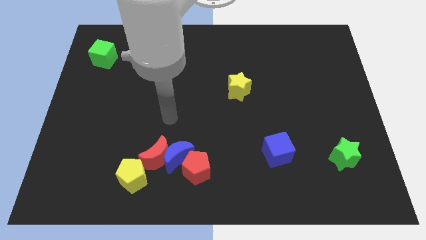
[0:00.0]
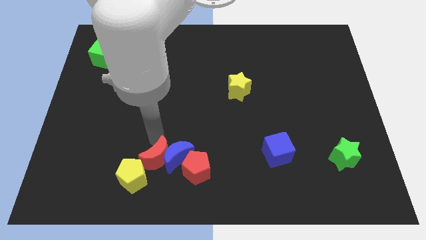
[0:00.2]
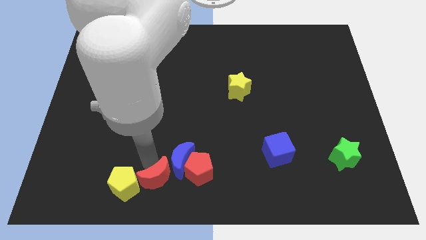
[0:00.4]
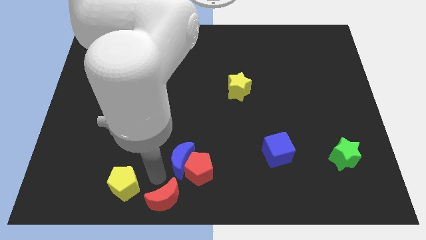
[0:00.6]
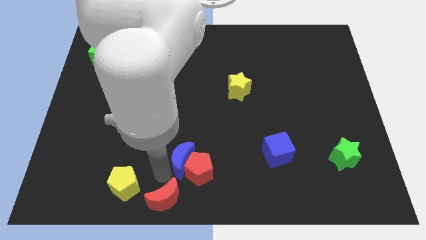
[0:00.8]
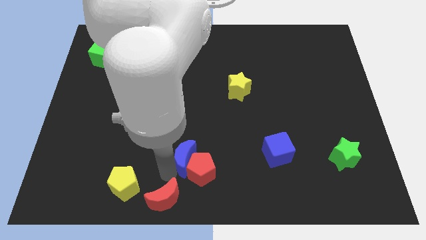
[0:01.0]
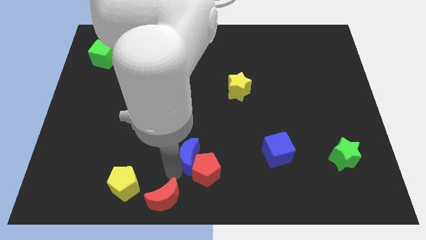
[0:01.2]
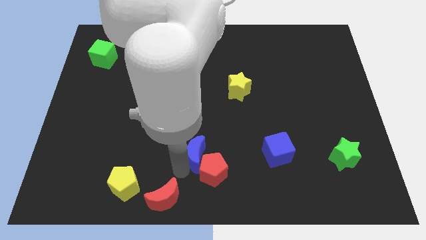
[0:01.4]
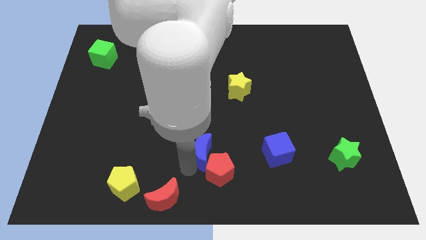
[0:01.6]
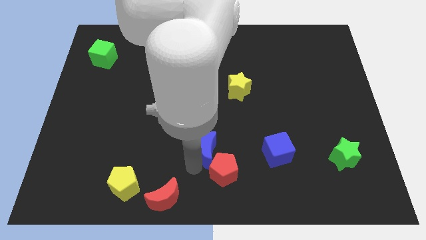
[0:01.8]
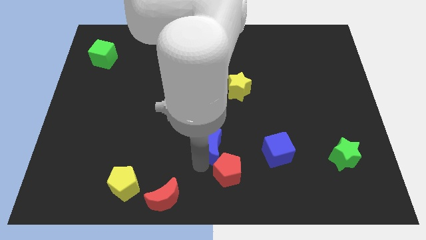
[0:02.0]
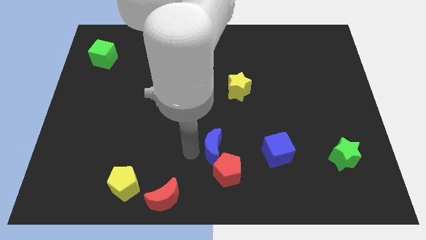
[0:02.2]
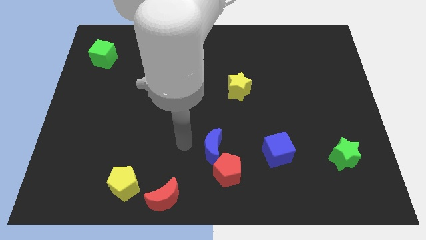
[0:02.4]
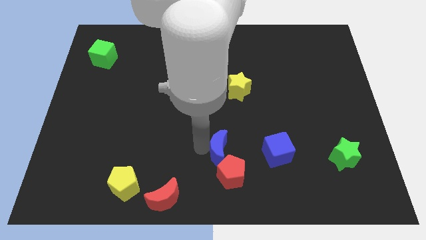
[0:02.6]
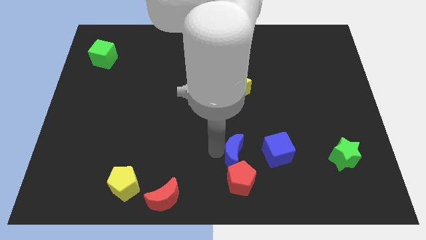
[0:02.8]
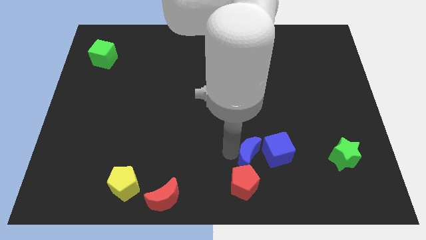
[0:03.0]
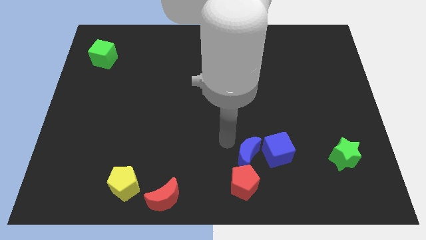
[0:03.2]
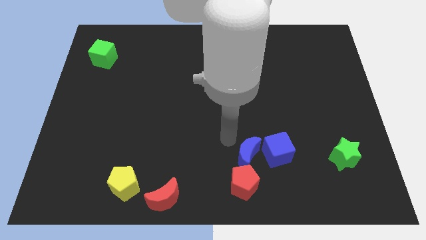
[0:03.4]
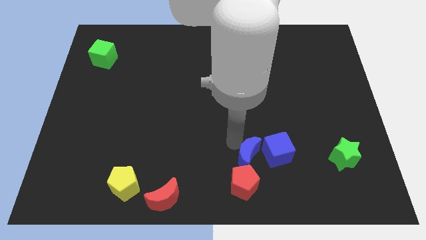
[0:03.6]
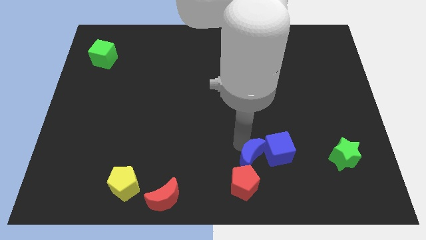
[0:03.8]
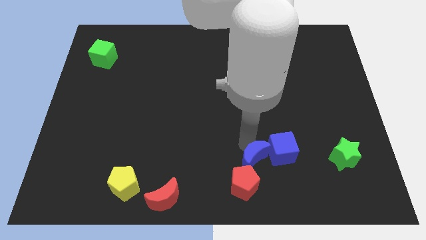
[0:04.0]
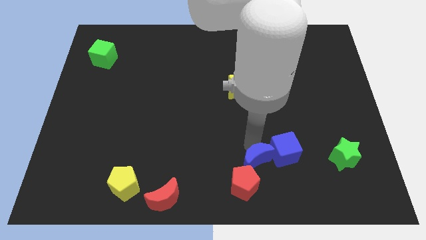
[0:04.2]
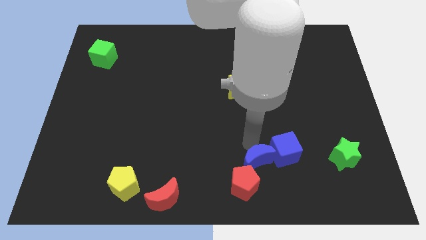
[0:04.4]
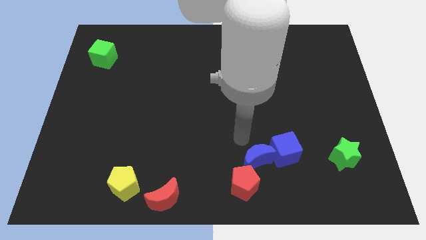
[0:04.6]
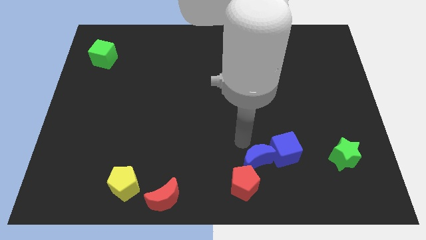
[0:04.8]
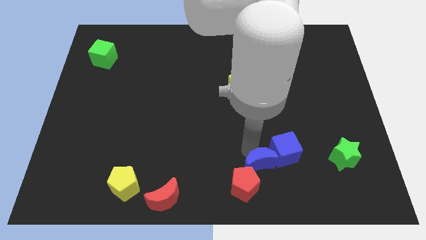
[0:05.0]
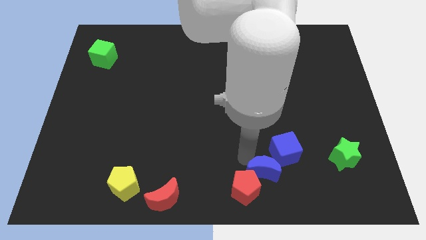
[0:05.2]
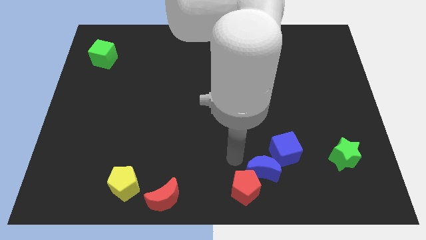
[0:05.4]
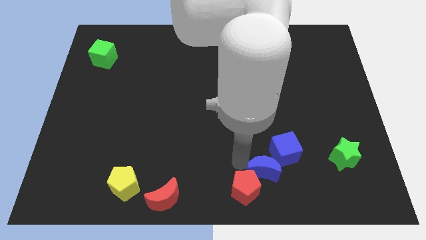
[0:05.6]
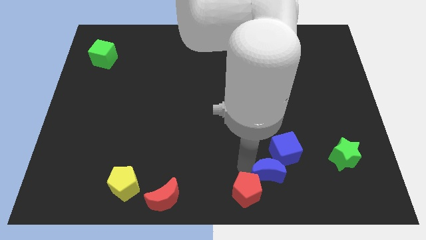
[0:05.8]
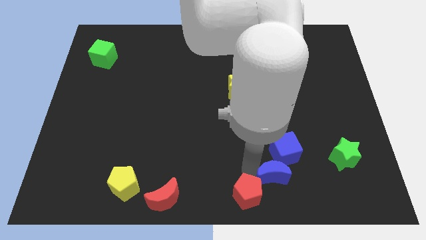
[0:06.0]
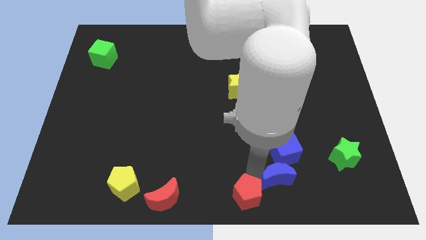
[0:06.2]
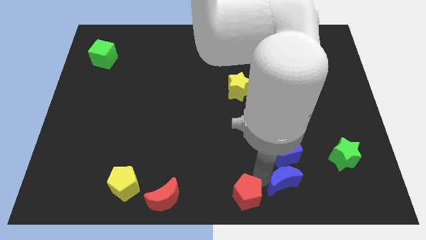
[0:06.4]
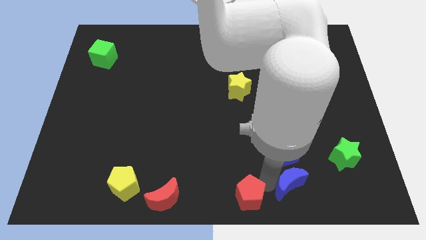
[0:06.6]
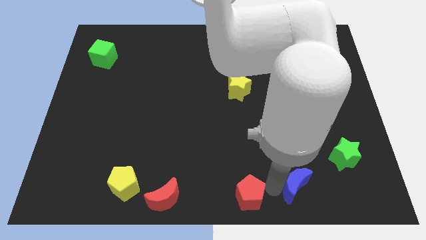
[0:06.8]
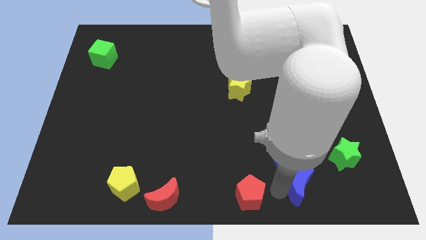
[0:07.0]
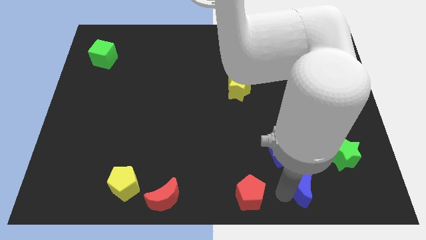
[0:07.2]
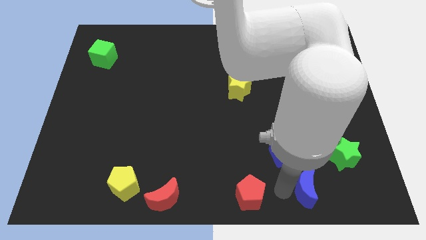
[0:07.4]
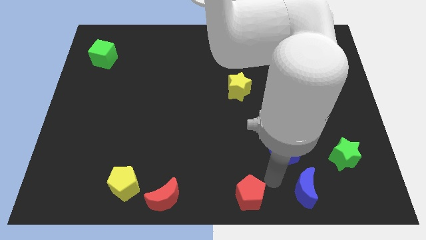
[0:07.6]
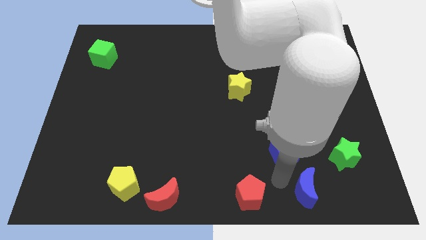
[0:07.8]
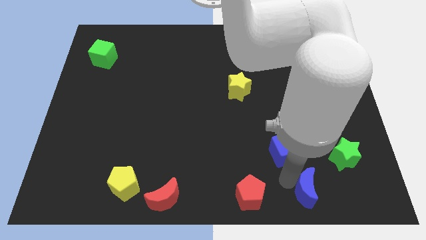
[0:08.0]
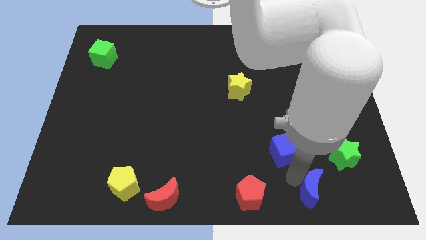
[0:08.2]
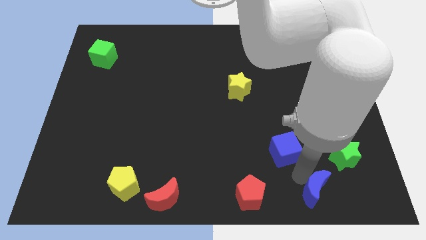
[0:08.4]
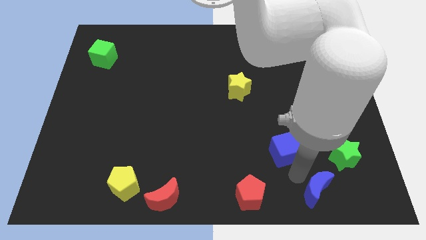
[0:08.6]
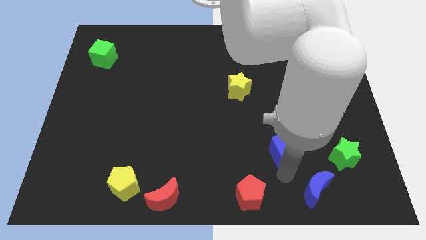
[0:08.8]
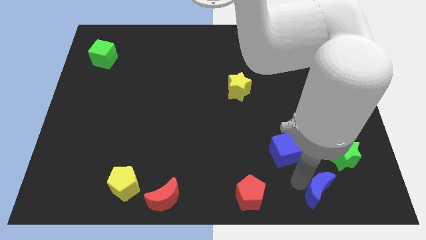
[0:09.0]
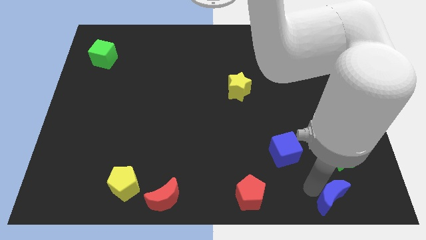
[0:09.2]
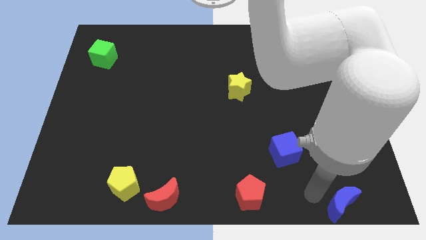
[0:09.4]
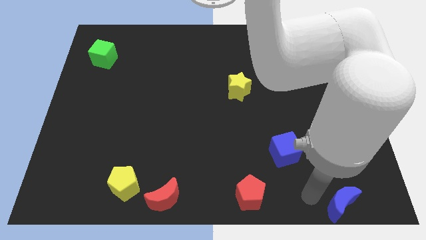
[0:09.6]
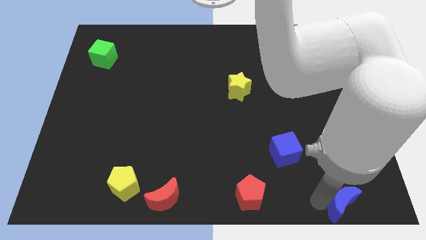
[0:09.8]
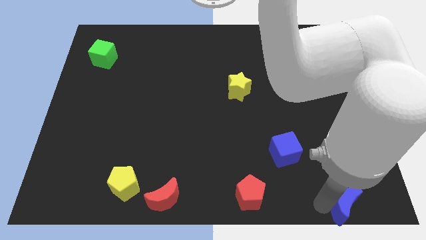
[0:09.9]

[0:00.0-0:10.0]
slide the blue moon to the bottom right corner

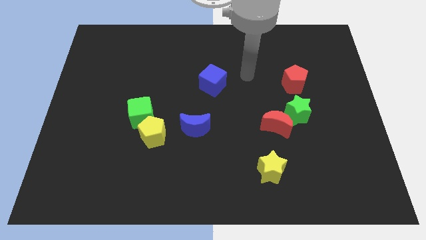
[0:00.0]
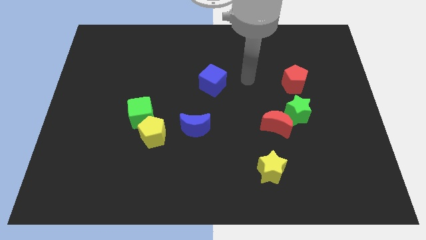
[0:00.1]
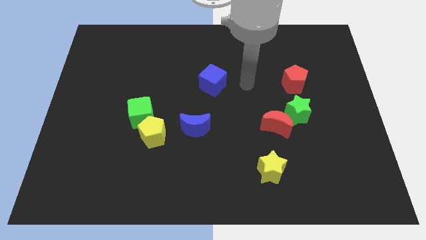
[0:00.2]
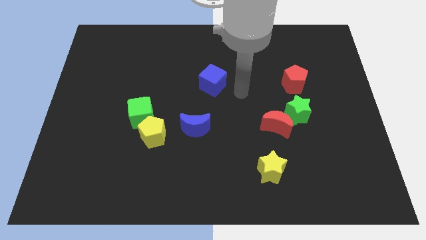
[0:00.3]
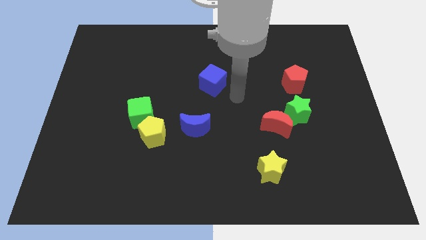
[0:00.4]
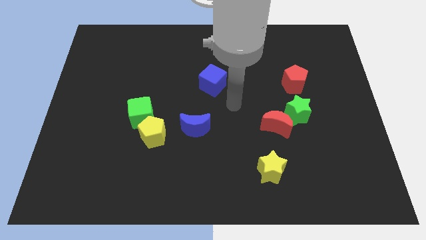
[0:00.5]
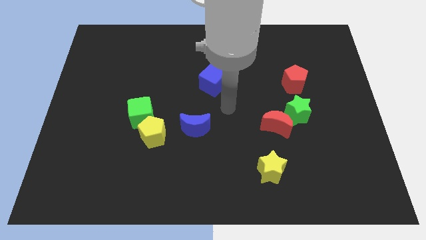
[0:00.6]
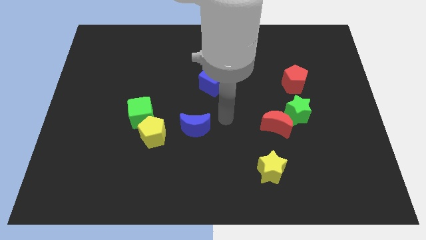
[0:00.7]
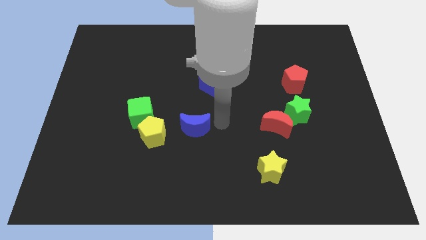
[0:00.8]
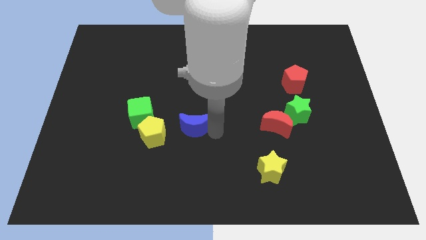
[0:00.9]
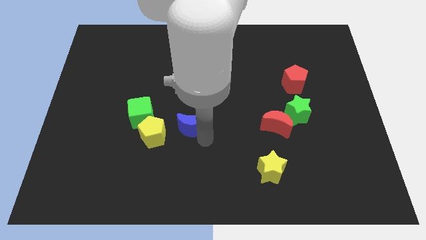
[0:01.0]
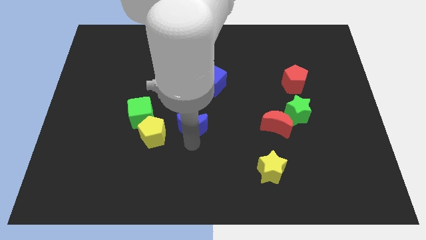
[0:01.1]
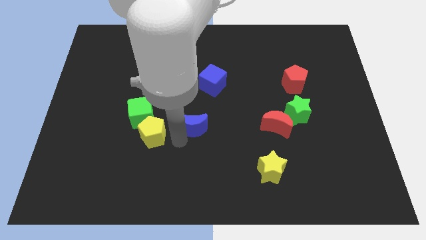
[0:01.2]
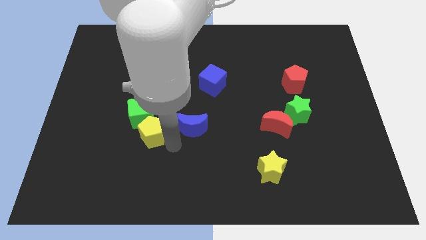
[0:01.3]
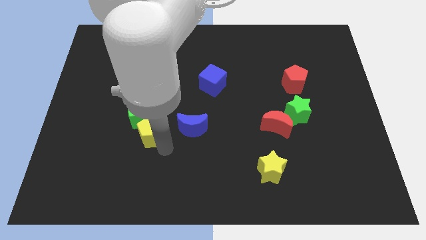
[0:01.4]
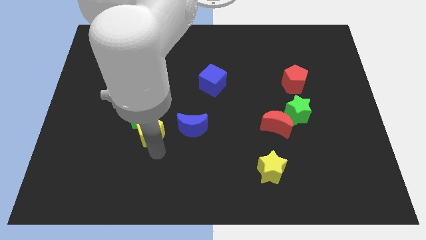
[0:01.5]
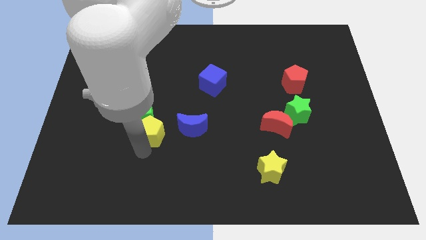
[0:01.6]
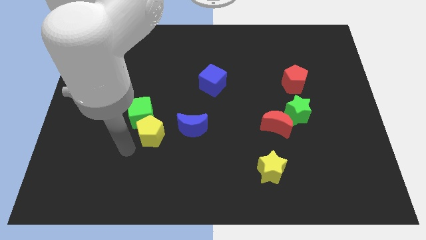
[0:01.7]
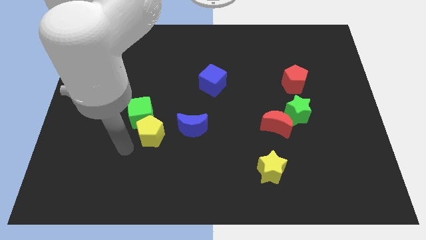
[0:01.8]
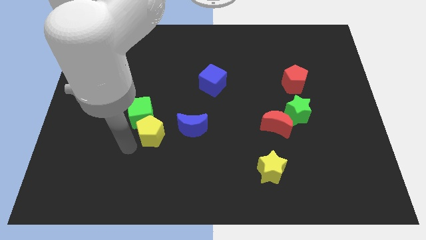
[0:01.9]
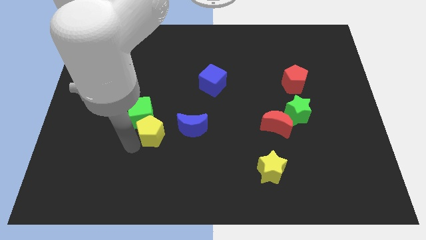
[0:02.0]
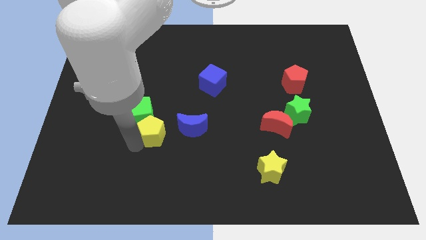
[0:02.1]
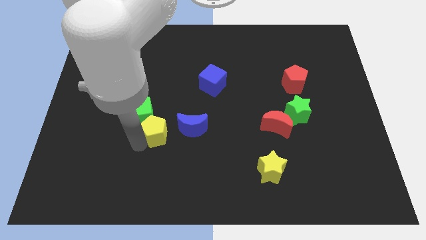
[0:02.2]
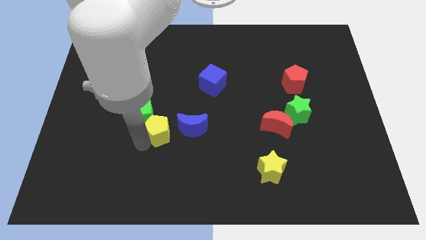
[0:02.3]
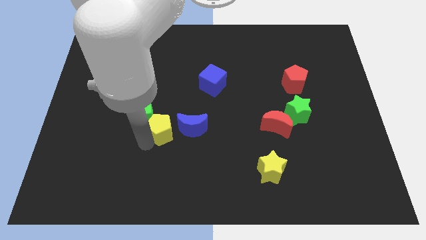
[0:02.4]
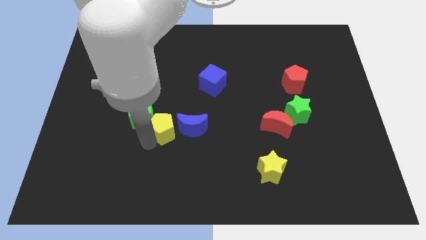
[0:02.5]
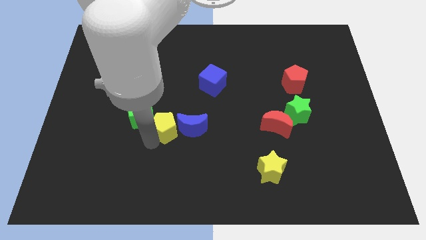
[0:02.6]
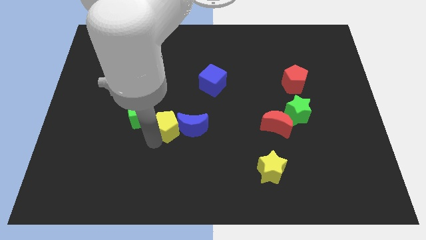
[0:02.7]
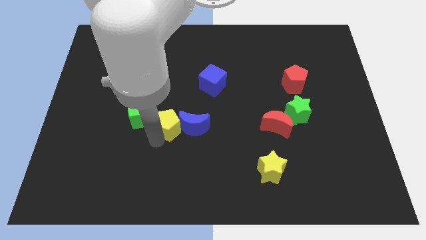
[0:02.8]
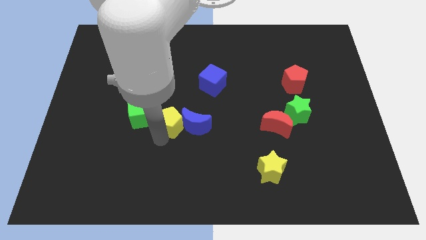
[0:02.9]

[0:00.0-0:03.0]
put the yellow pentagon to the middle
